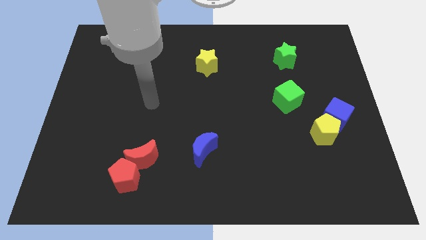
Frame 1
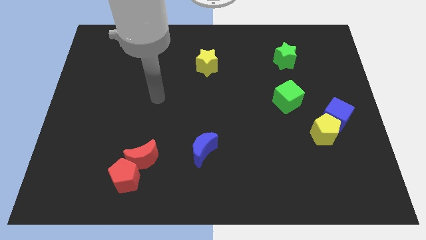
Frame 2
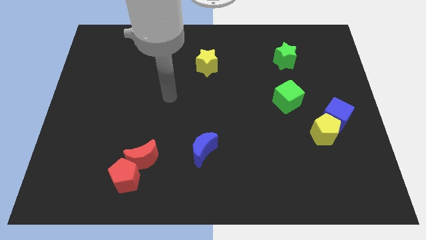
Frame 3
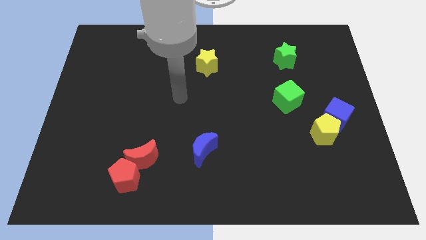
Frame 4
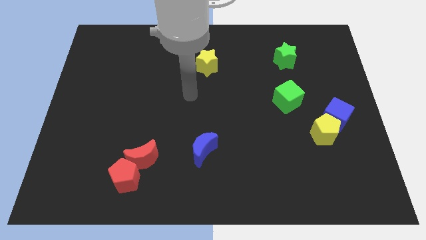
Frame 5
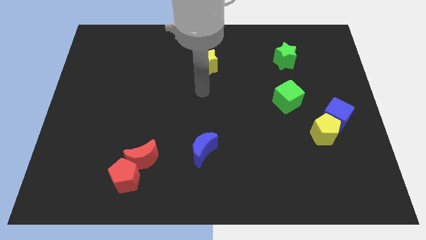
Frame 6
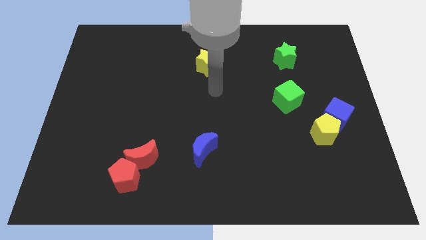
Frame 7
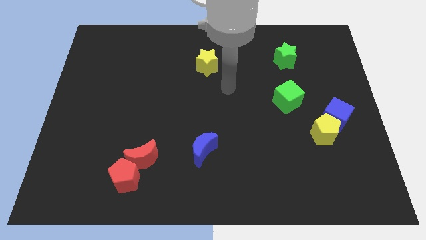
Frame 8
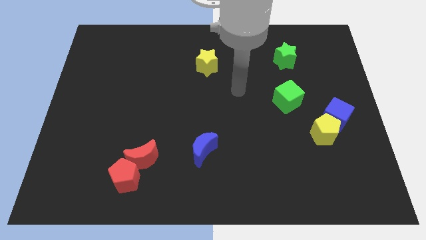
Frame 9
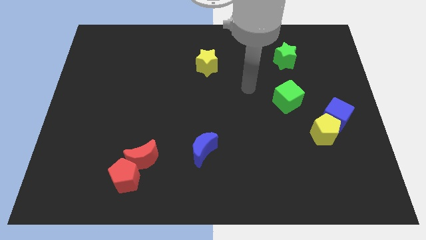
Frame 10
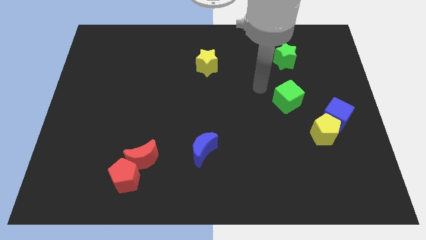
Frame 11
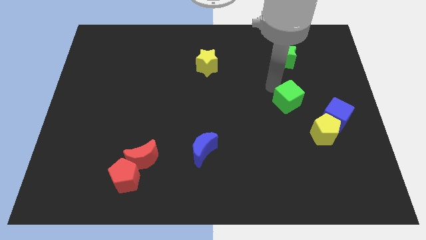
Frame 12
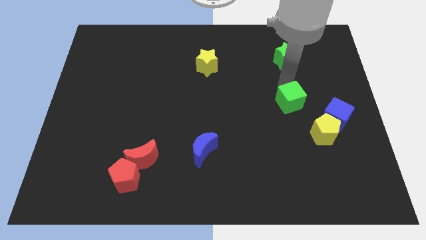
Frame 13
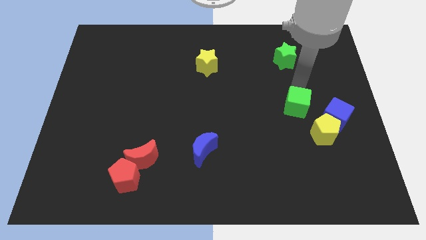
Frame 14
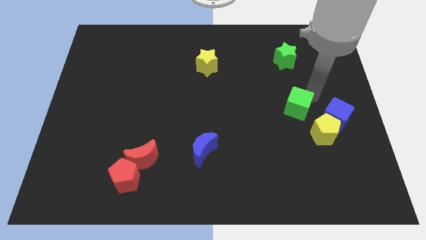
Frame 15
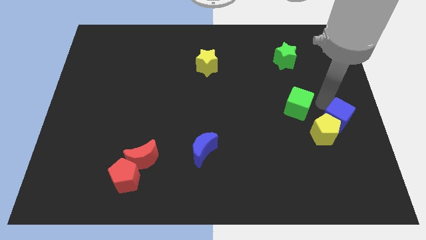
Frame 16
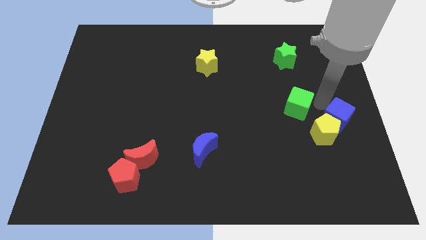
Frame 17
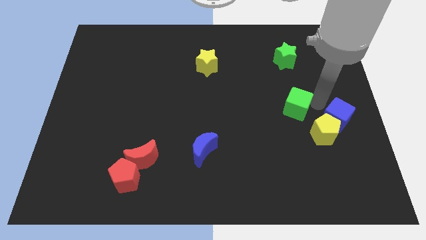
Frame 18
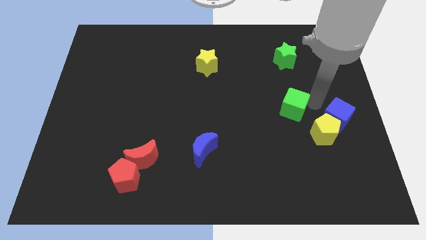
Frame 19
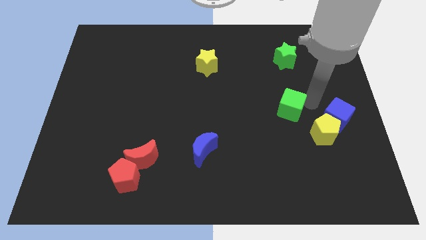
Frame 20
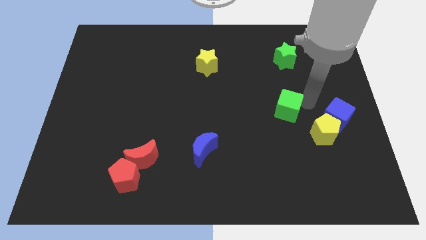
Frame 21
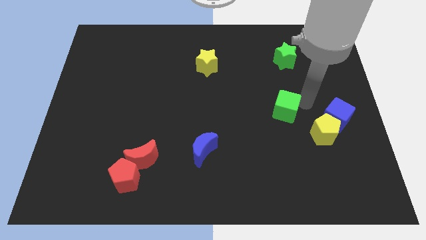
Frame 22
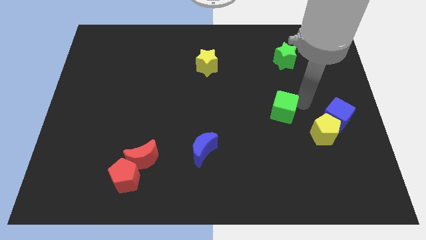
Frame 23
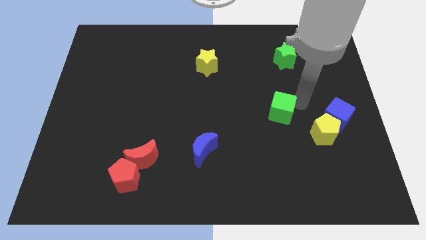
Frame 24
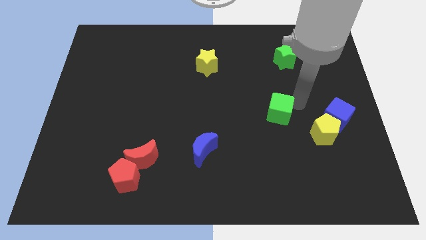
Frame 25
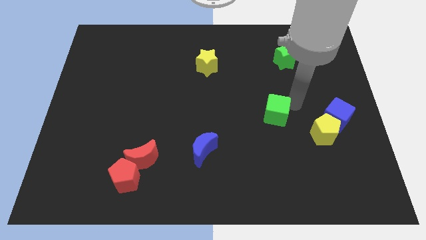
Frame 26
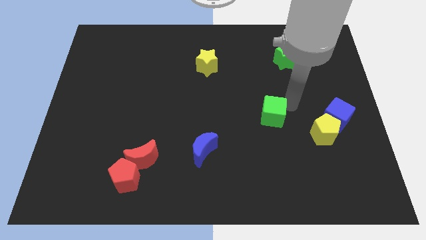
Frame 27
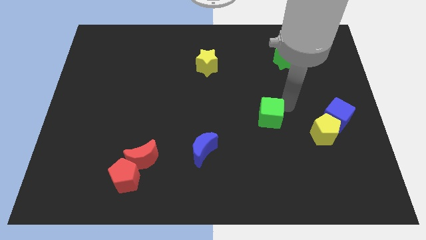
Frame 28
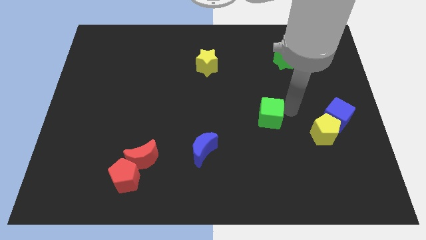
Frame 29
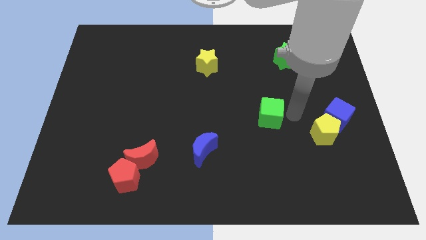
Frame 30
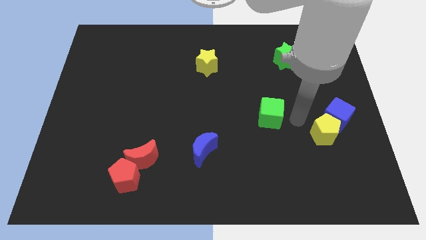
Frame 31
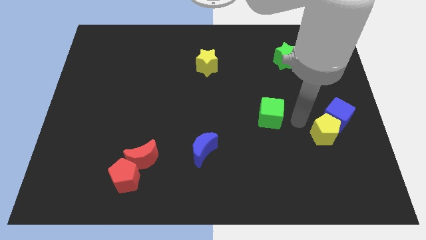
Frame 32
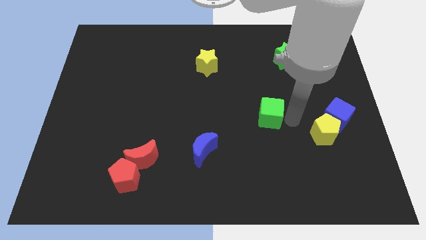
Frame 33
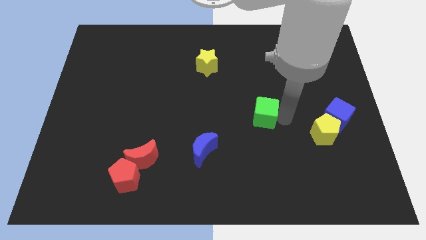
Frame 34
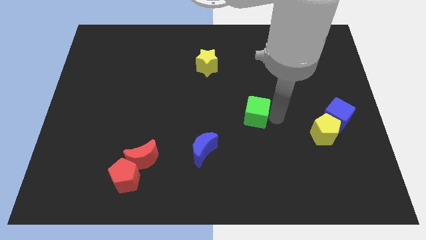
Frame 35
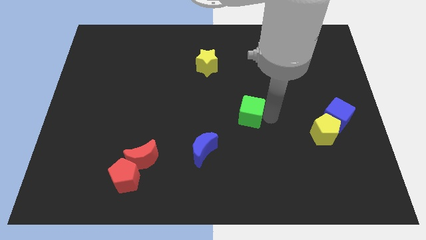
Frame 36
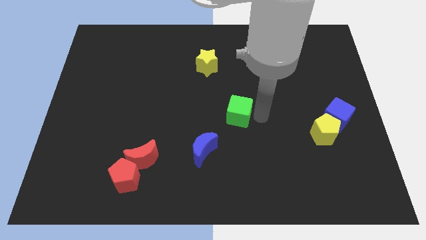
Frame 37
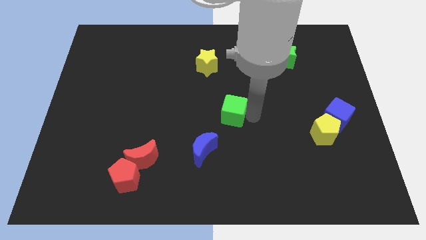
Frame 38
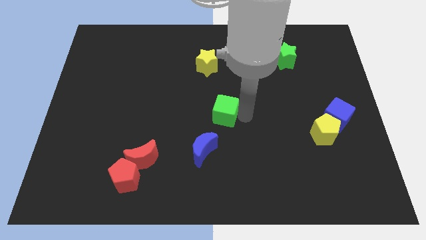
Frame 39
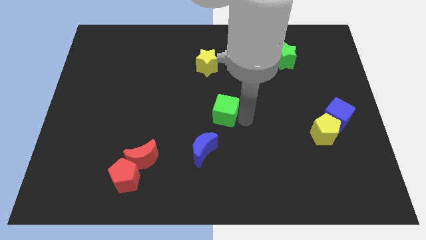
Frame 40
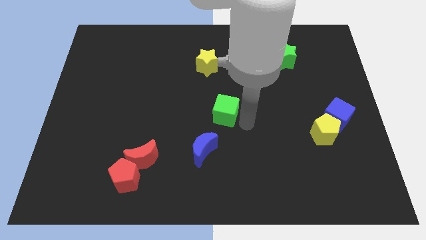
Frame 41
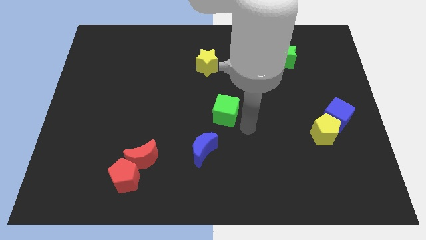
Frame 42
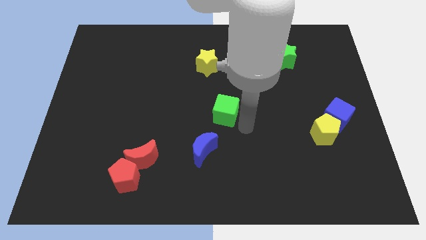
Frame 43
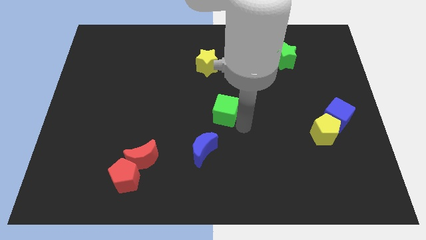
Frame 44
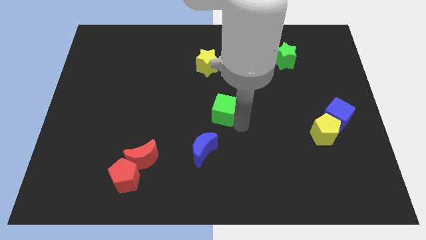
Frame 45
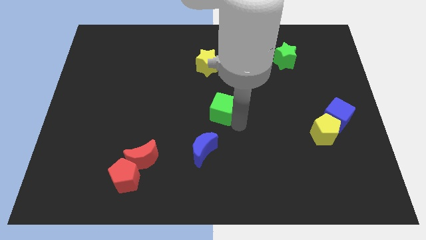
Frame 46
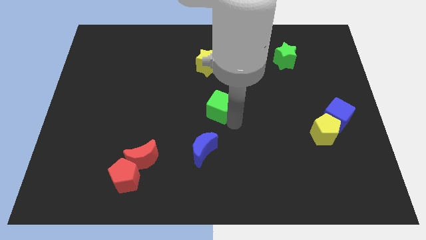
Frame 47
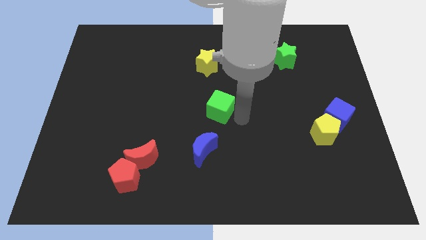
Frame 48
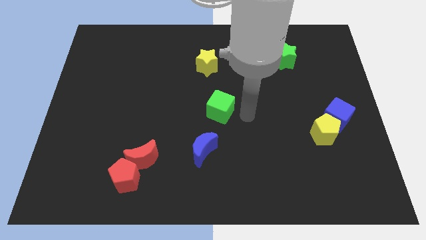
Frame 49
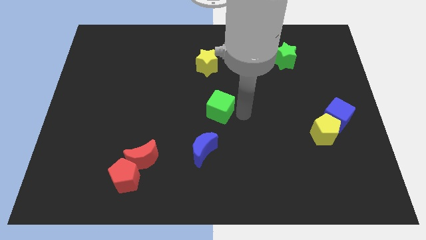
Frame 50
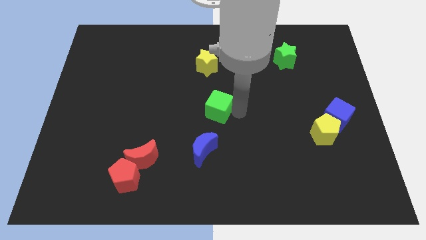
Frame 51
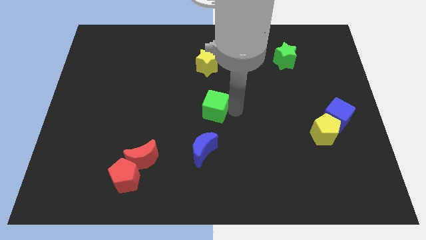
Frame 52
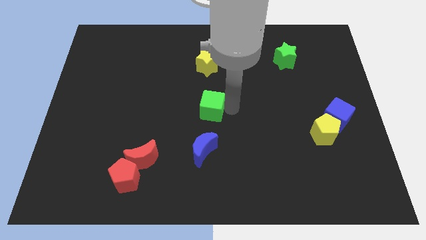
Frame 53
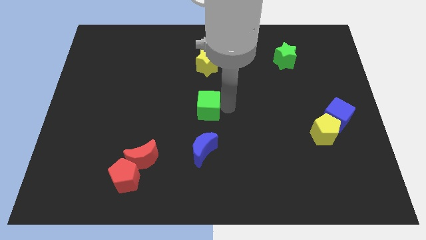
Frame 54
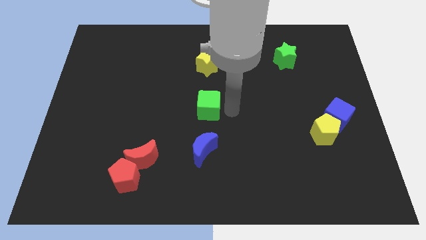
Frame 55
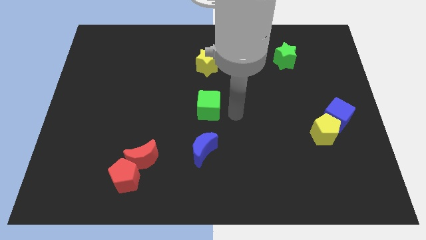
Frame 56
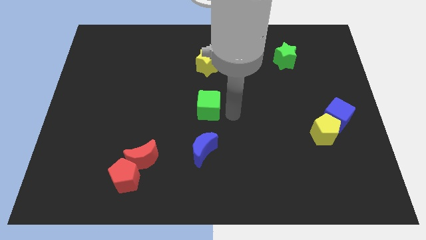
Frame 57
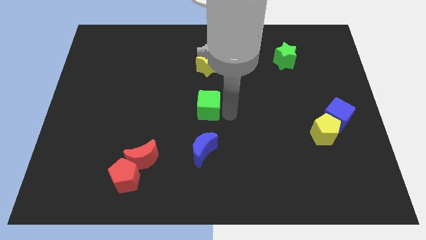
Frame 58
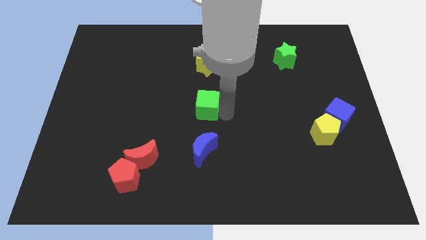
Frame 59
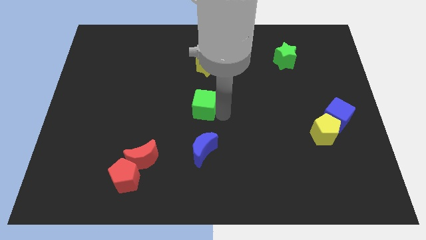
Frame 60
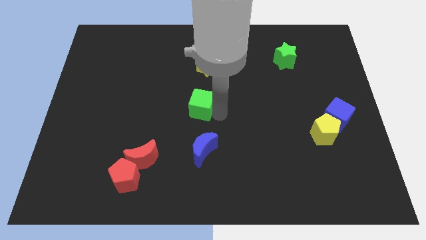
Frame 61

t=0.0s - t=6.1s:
move the green cube left

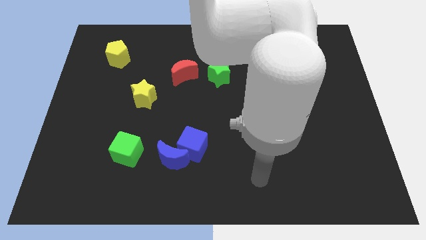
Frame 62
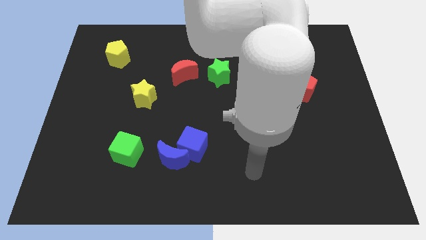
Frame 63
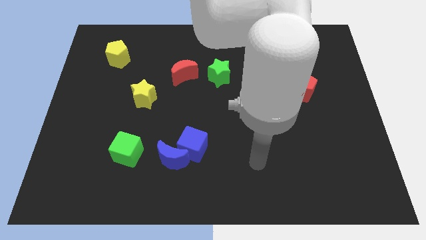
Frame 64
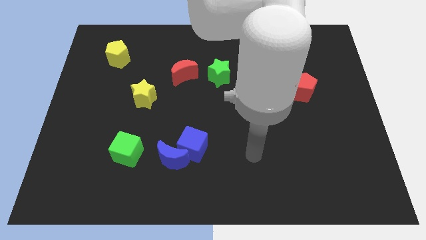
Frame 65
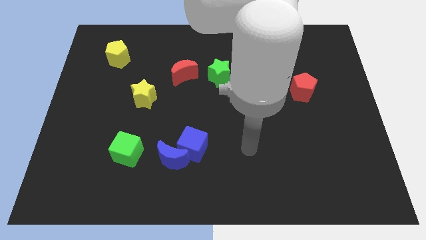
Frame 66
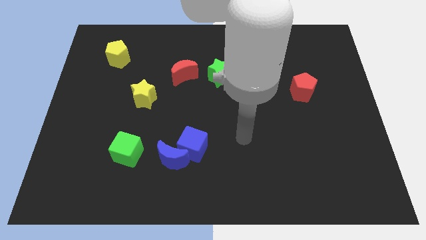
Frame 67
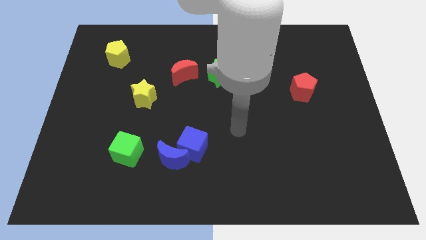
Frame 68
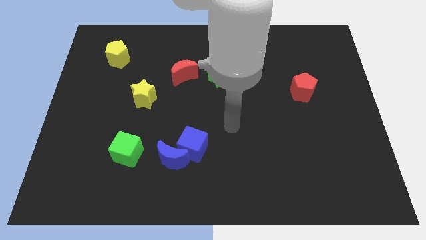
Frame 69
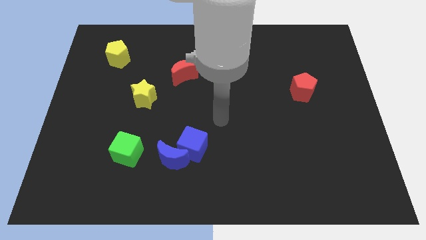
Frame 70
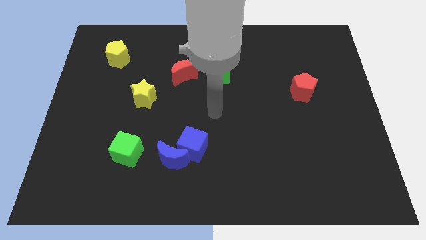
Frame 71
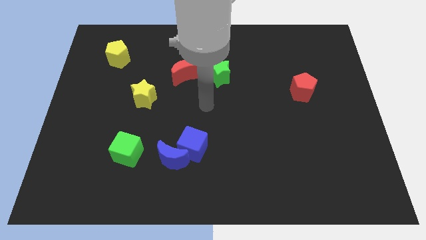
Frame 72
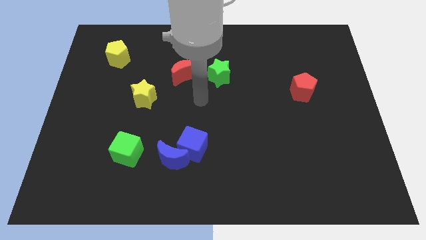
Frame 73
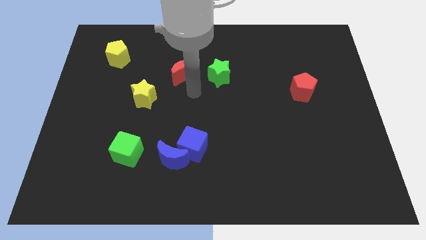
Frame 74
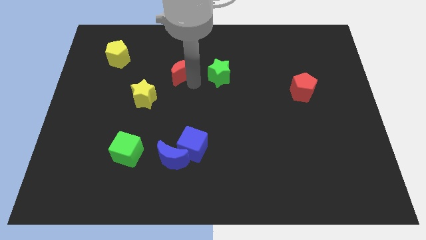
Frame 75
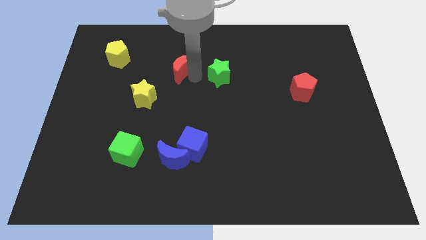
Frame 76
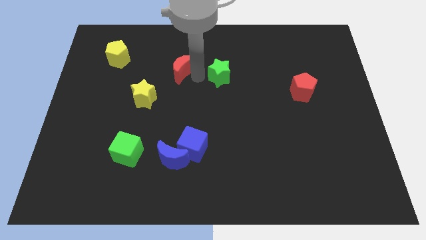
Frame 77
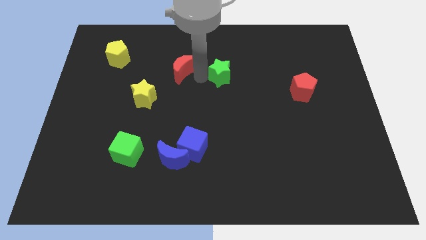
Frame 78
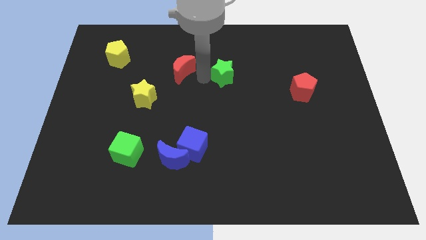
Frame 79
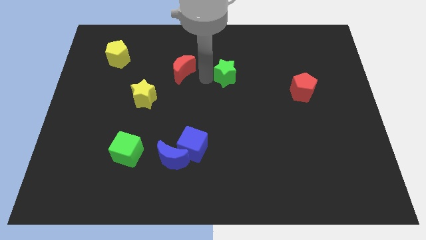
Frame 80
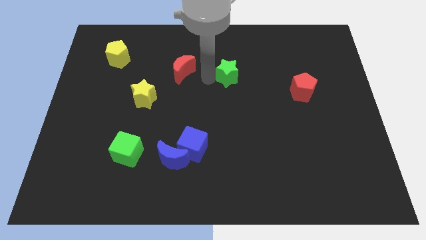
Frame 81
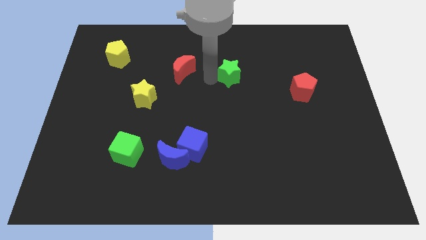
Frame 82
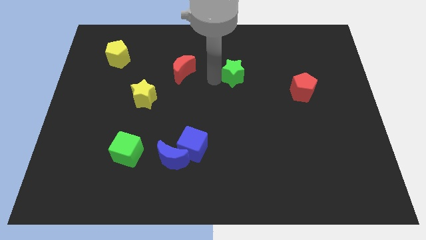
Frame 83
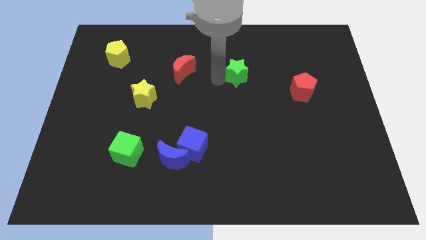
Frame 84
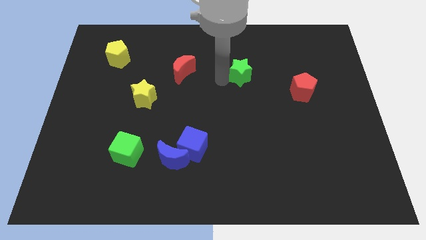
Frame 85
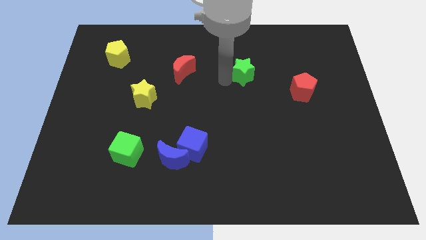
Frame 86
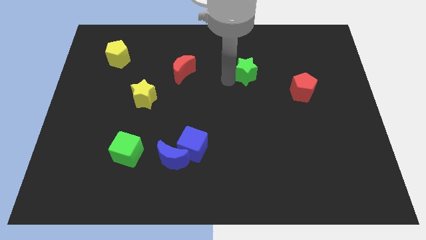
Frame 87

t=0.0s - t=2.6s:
slide the green star a bit to the right
